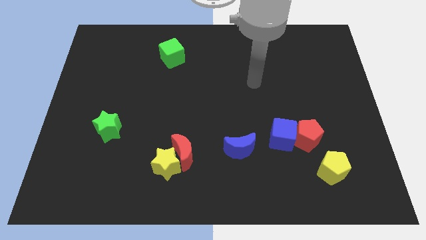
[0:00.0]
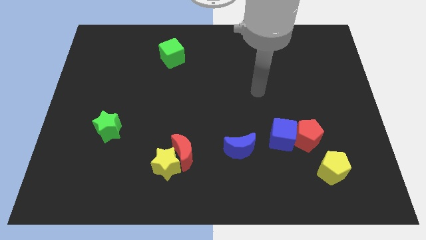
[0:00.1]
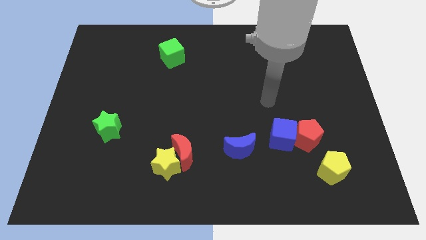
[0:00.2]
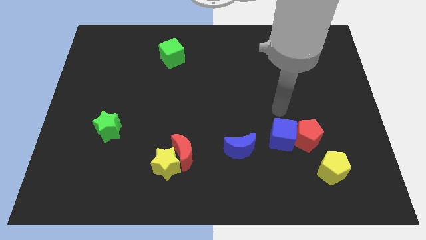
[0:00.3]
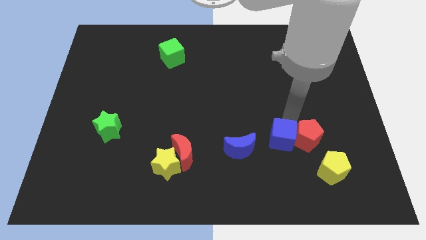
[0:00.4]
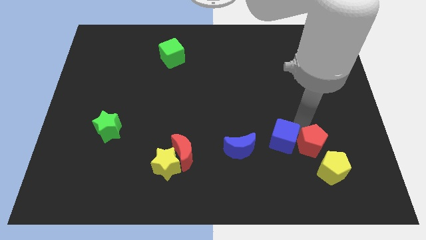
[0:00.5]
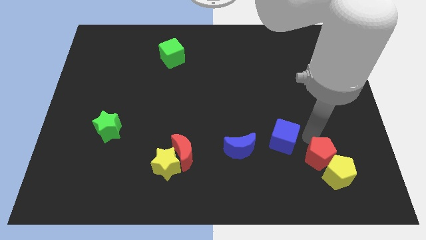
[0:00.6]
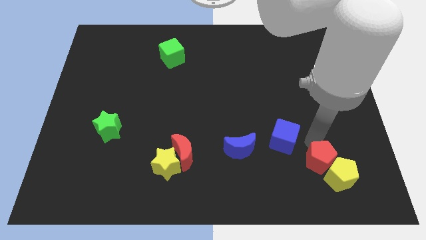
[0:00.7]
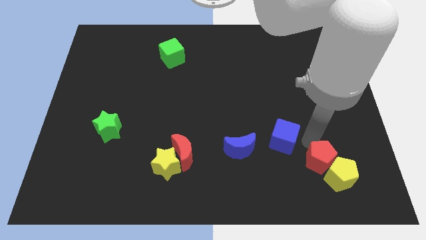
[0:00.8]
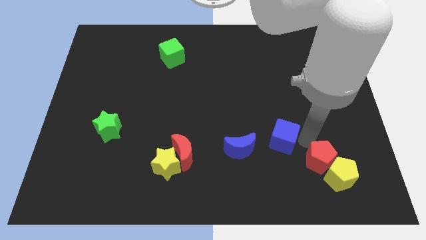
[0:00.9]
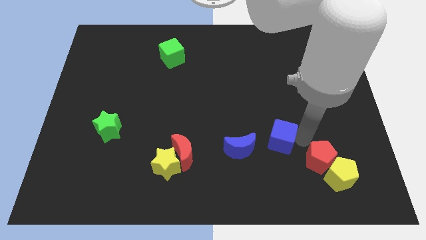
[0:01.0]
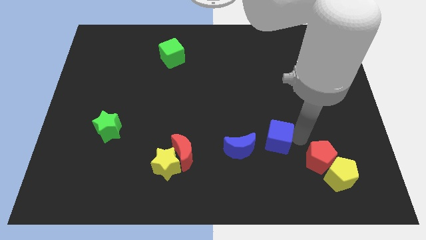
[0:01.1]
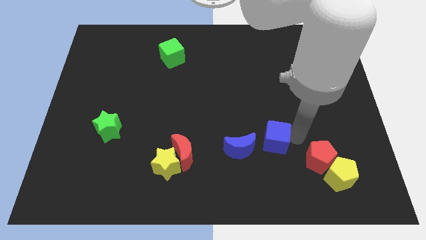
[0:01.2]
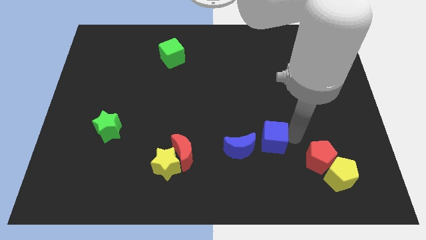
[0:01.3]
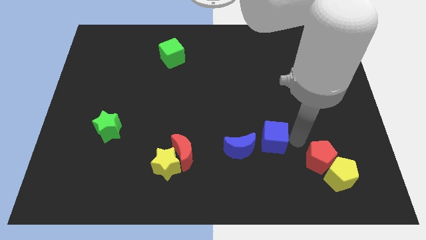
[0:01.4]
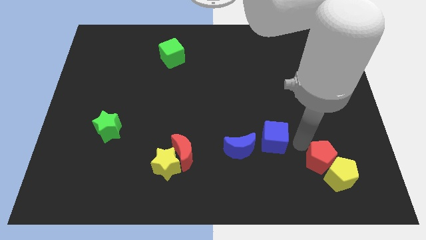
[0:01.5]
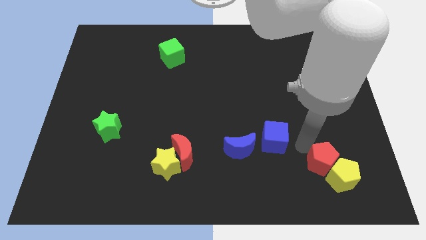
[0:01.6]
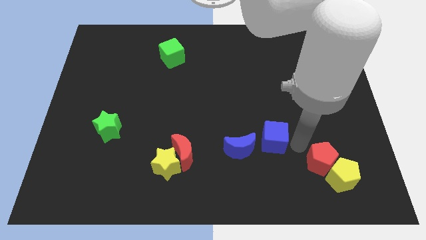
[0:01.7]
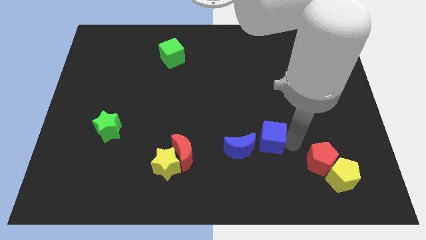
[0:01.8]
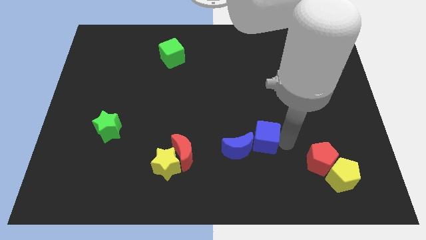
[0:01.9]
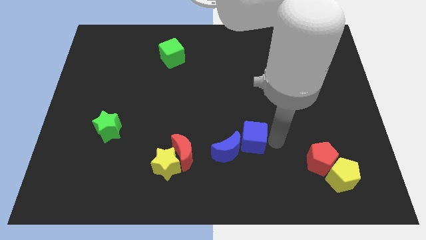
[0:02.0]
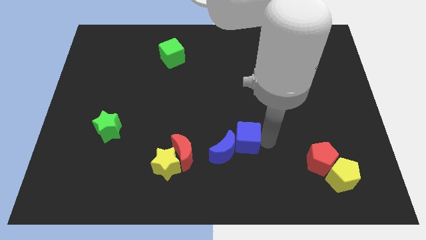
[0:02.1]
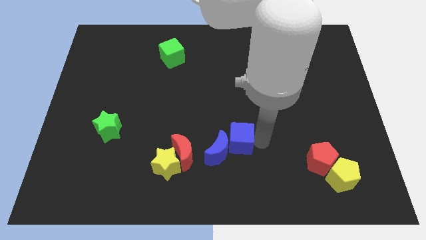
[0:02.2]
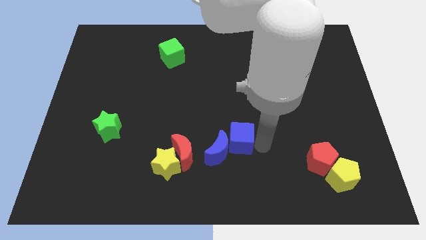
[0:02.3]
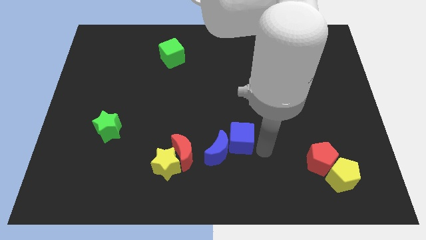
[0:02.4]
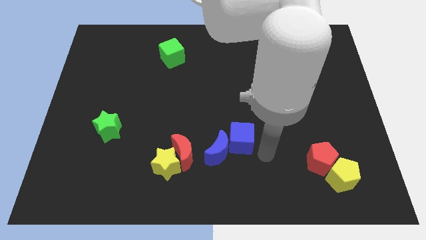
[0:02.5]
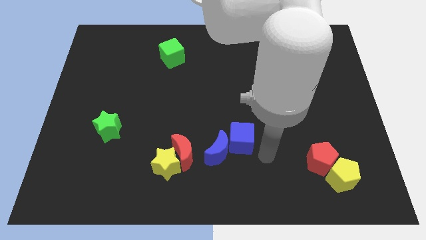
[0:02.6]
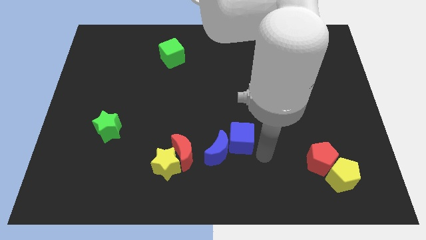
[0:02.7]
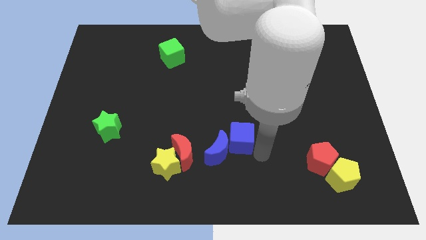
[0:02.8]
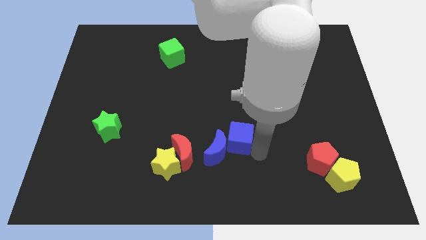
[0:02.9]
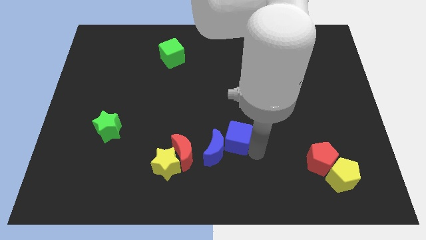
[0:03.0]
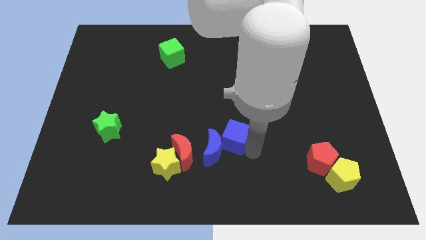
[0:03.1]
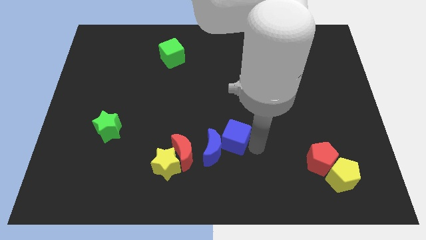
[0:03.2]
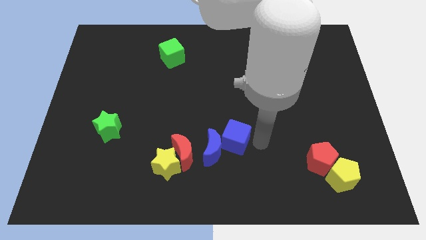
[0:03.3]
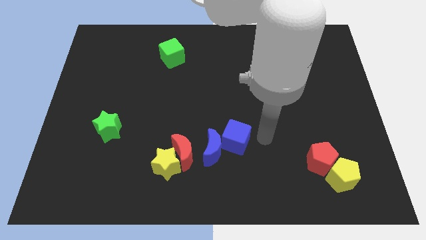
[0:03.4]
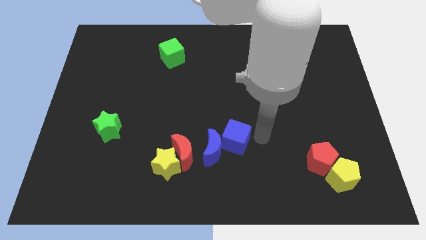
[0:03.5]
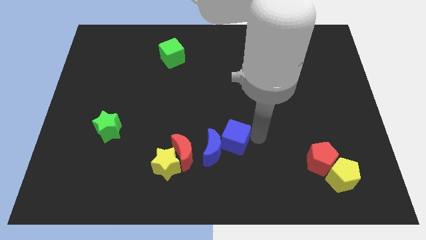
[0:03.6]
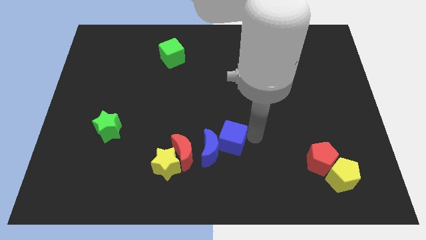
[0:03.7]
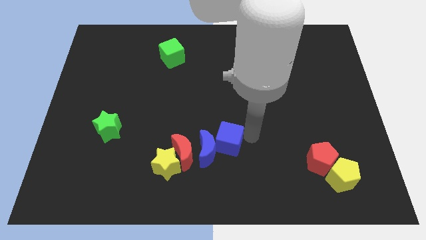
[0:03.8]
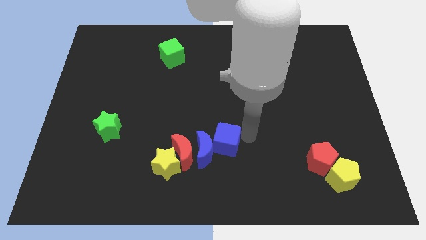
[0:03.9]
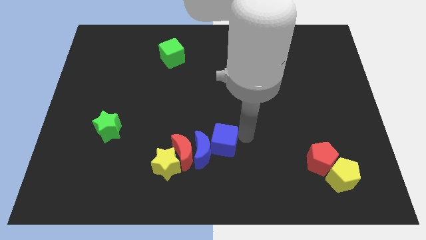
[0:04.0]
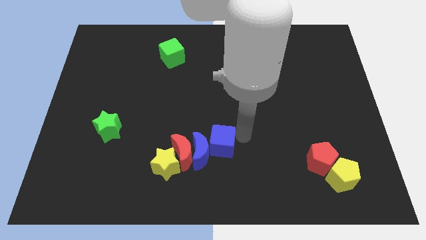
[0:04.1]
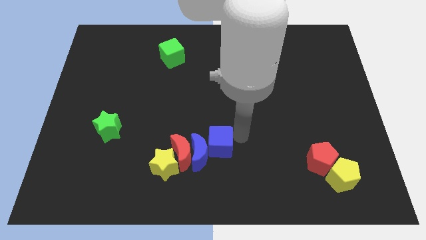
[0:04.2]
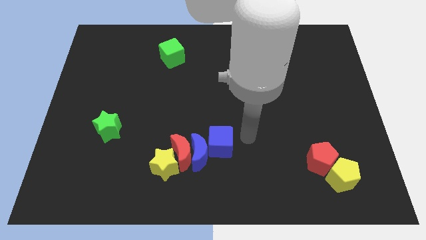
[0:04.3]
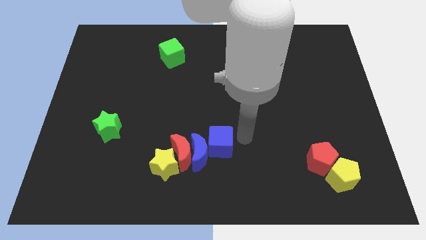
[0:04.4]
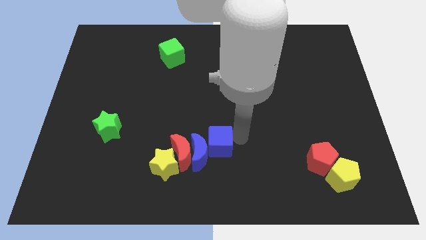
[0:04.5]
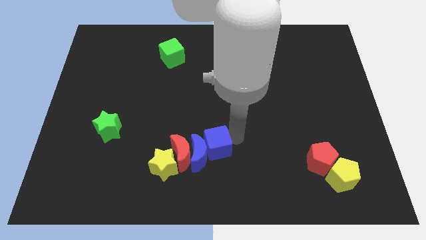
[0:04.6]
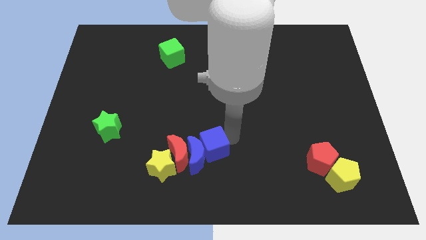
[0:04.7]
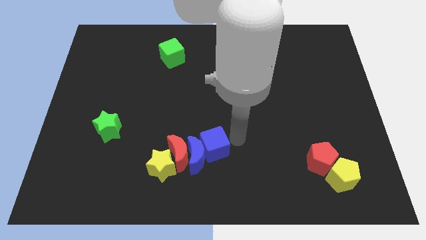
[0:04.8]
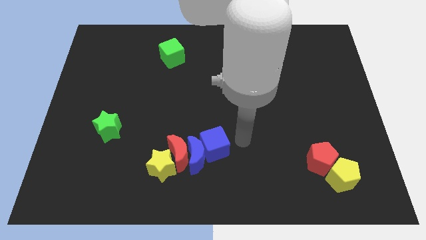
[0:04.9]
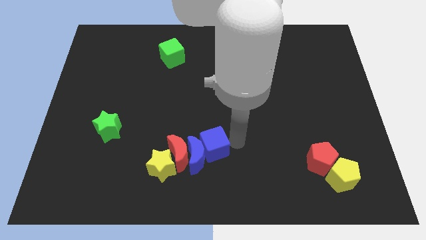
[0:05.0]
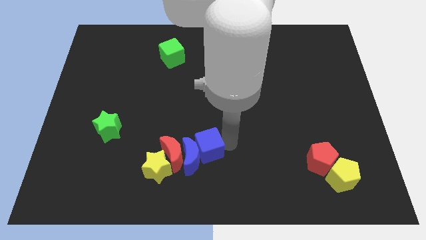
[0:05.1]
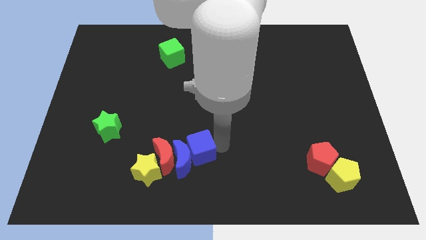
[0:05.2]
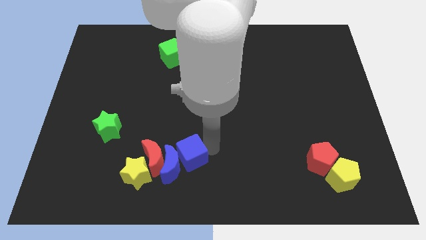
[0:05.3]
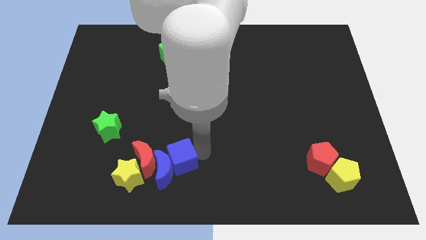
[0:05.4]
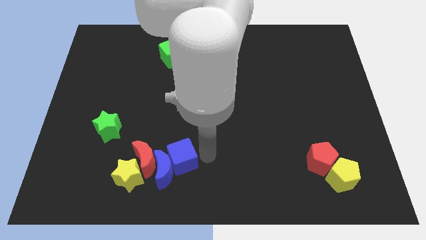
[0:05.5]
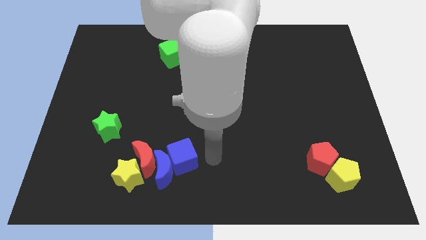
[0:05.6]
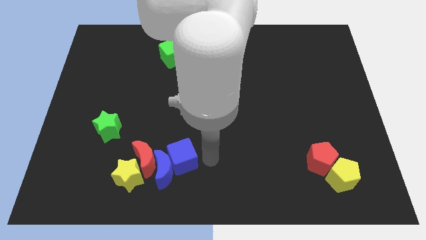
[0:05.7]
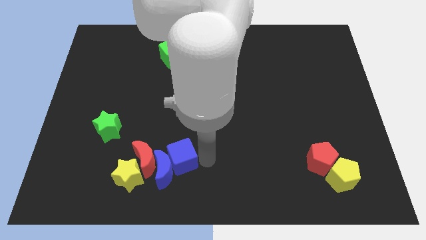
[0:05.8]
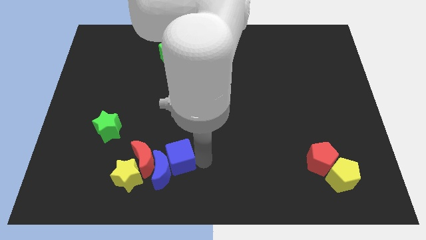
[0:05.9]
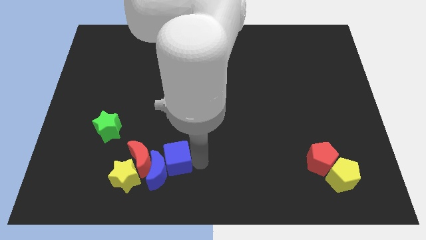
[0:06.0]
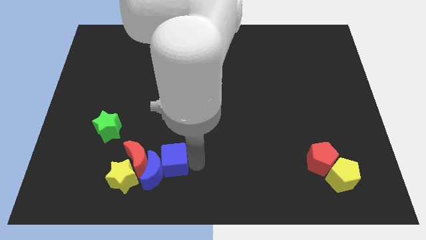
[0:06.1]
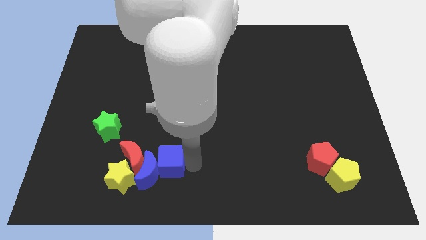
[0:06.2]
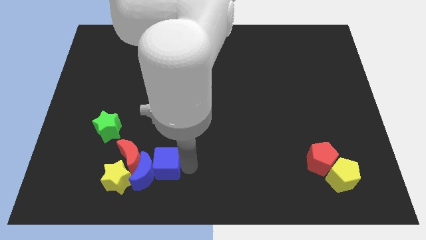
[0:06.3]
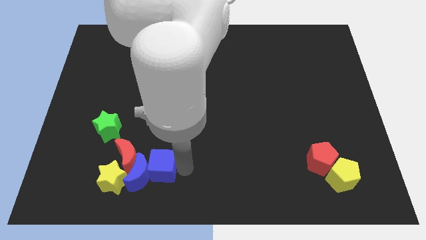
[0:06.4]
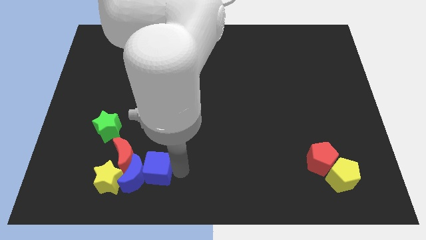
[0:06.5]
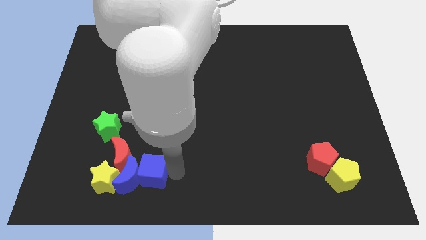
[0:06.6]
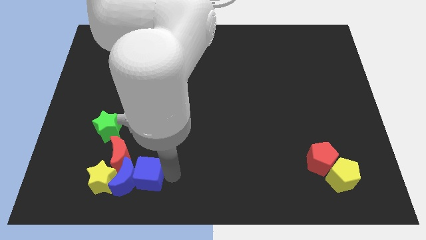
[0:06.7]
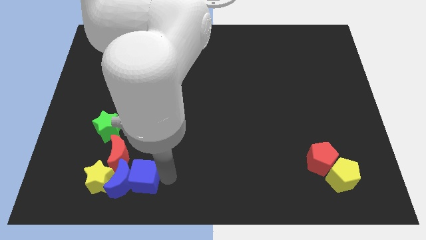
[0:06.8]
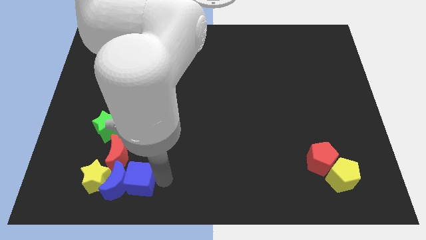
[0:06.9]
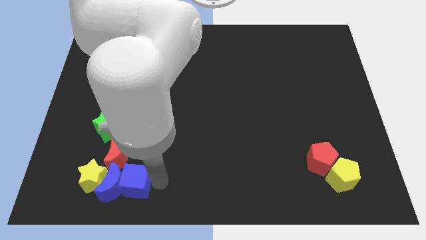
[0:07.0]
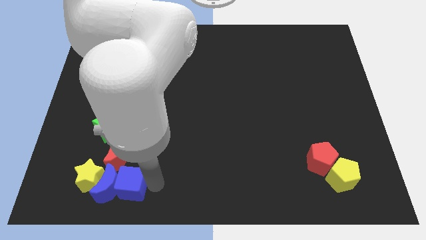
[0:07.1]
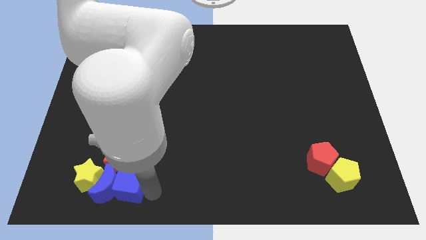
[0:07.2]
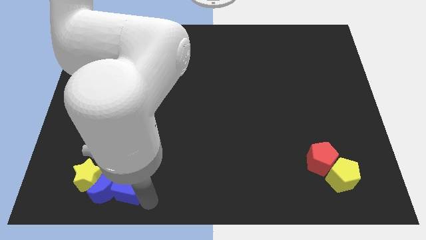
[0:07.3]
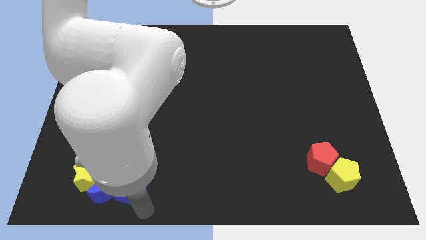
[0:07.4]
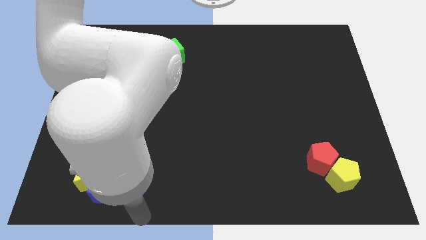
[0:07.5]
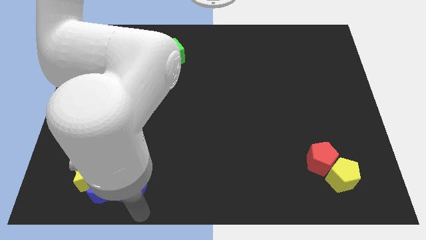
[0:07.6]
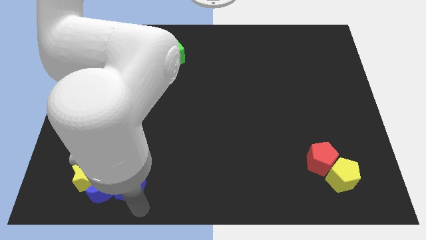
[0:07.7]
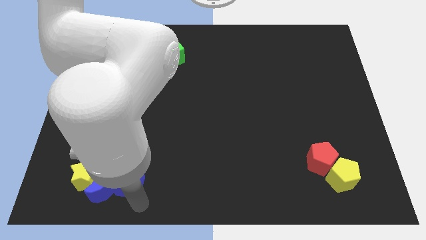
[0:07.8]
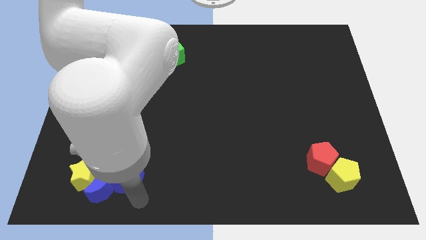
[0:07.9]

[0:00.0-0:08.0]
push the blue cube towards the red moon
